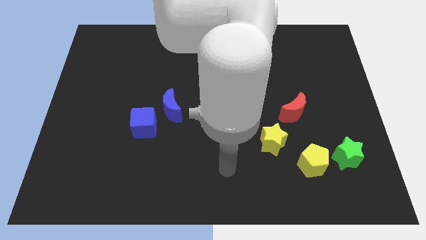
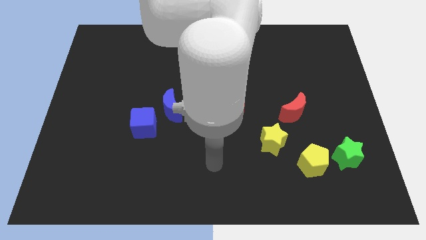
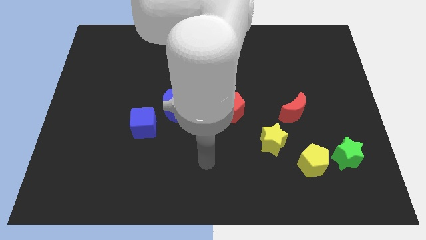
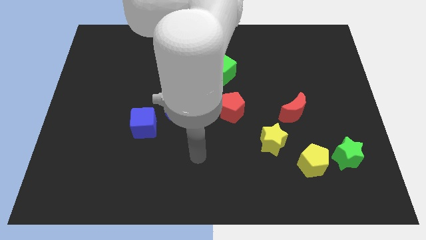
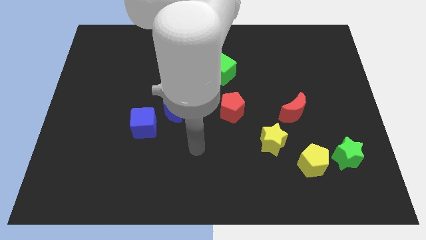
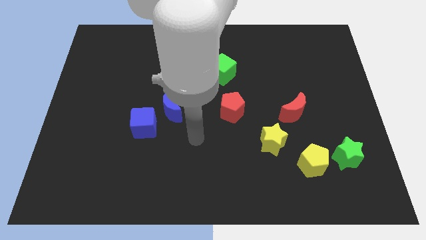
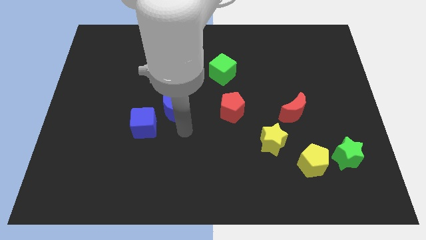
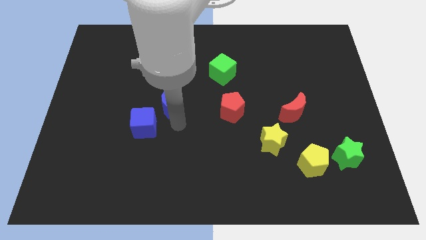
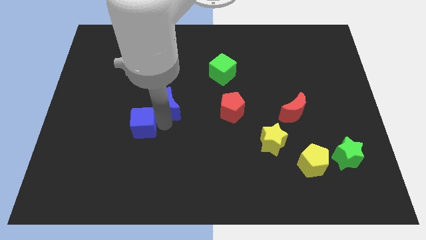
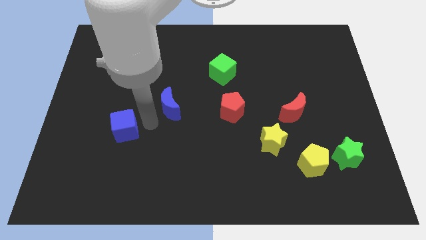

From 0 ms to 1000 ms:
separate the blue moon from the blue cube

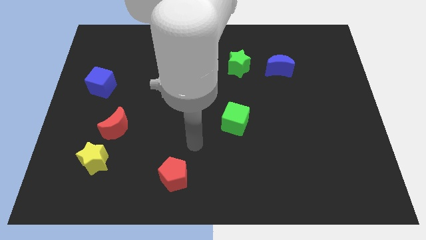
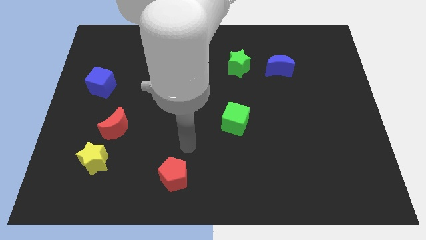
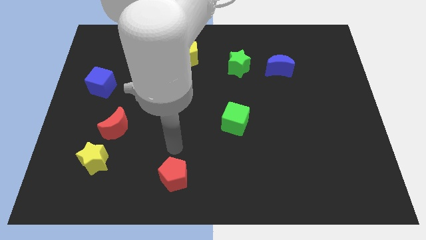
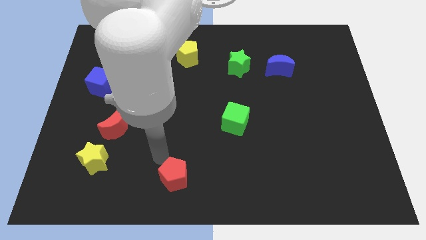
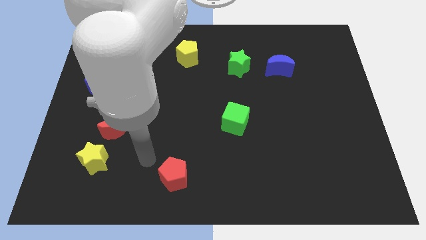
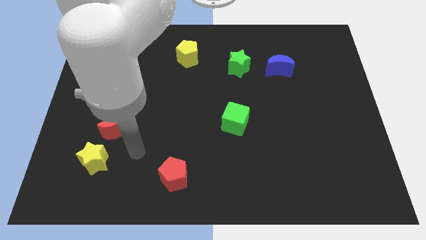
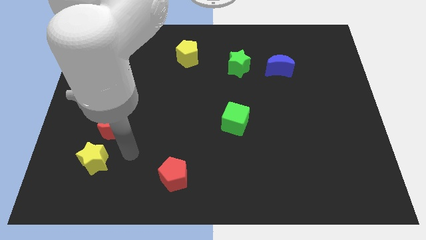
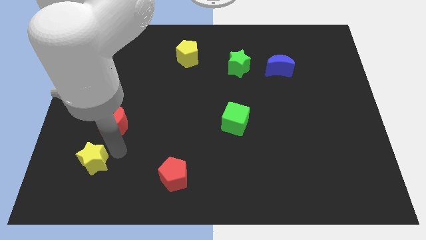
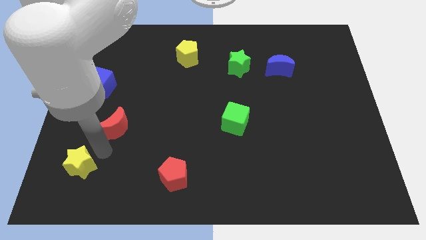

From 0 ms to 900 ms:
separate the red moon from the yellow star

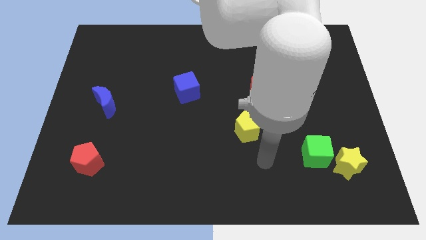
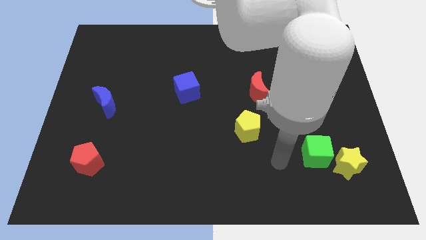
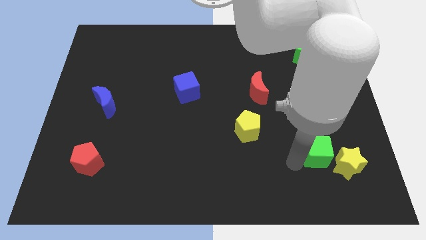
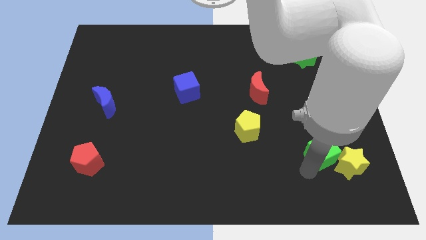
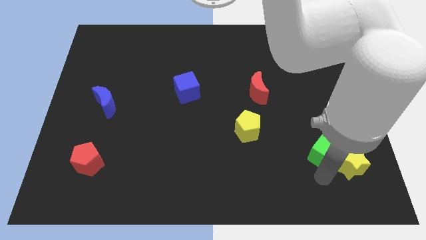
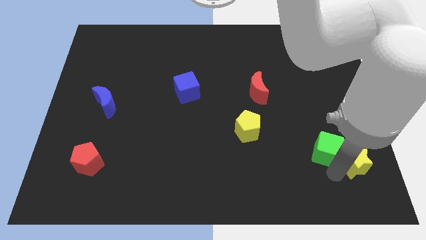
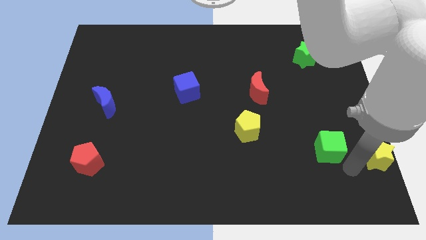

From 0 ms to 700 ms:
pull the green cube apart from the yellow star

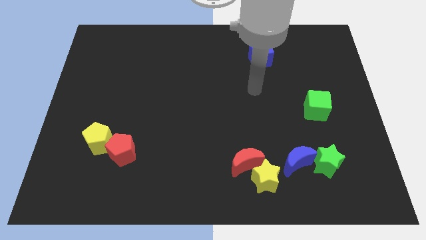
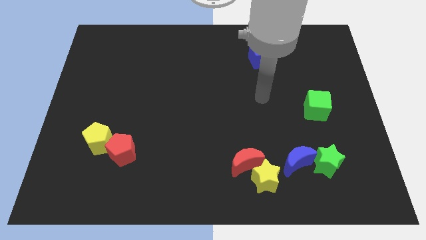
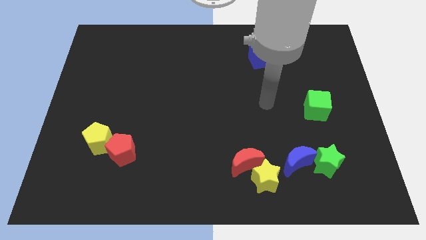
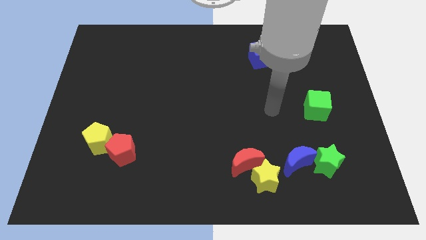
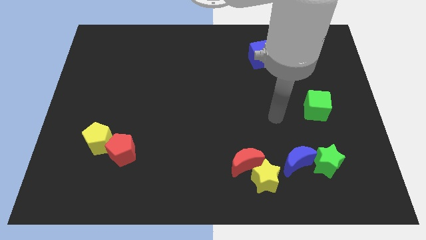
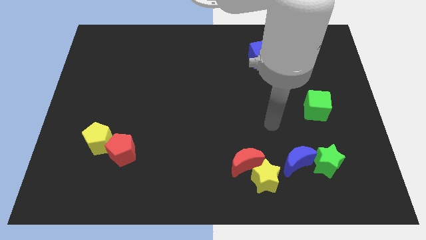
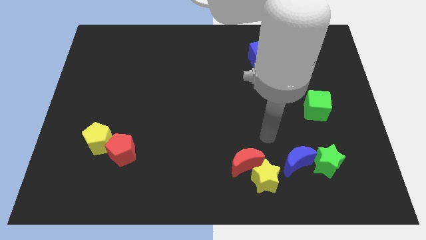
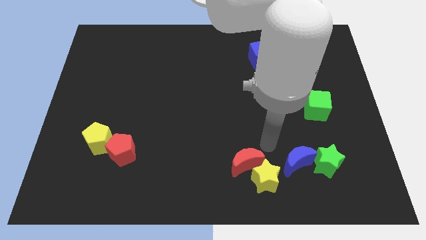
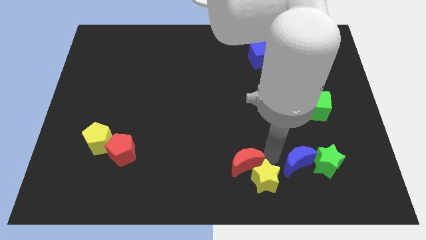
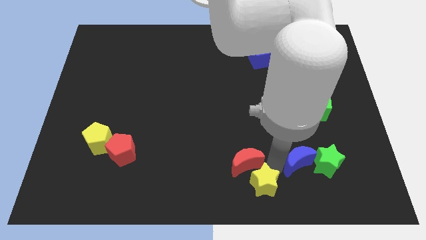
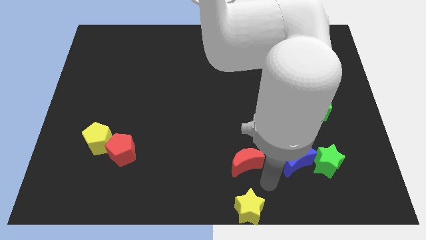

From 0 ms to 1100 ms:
pull the red moon apart from the yellow star

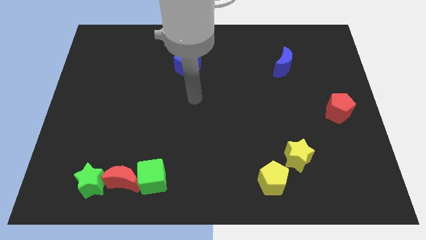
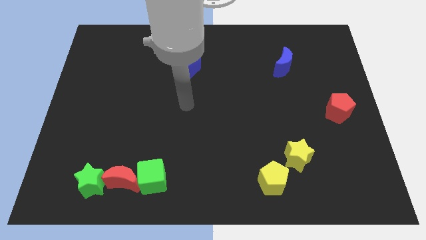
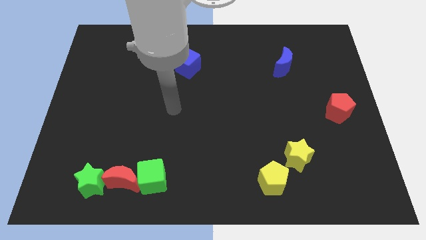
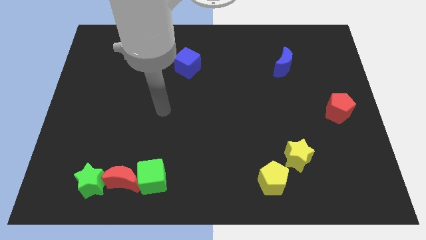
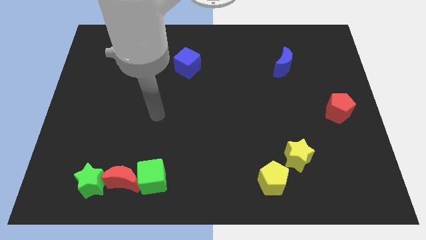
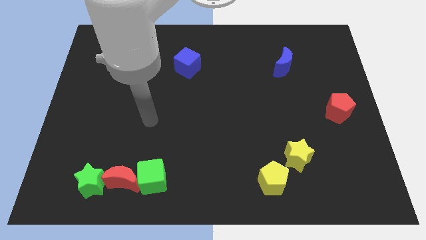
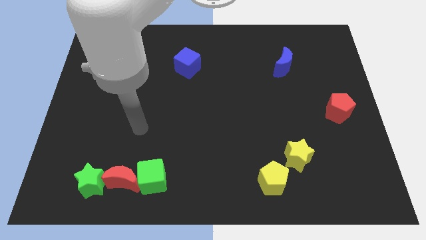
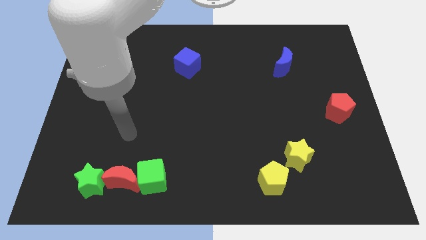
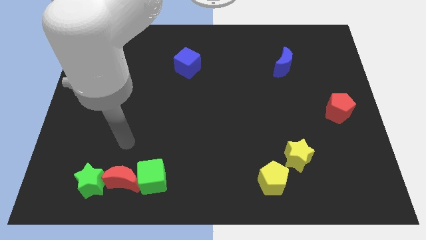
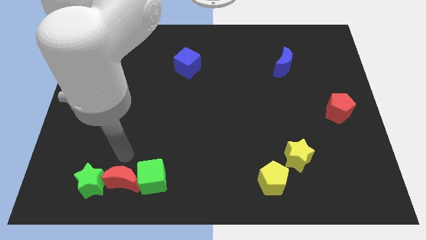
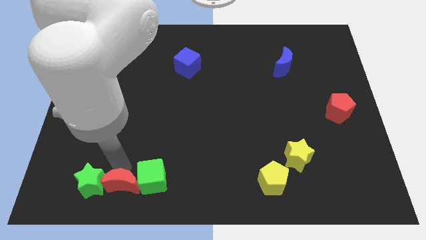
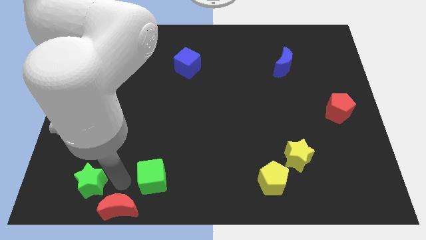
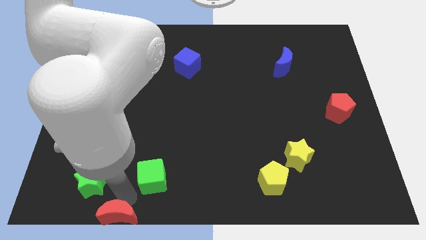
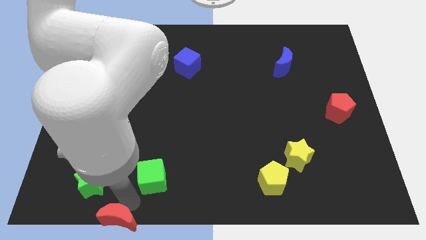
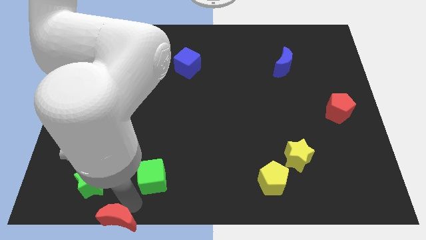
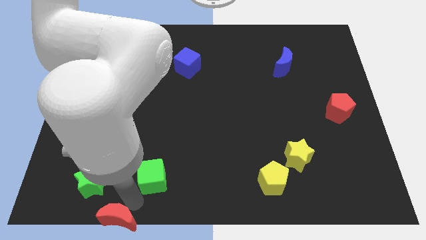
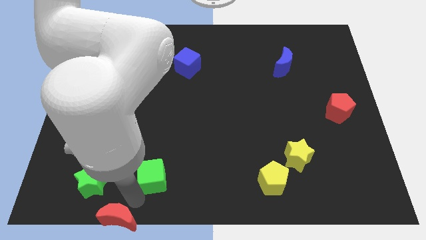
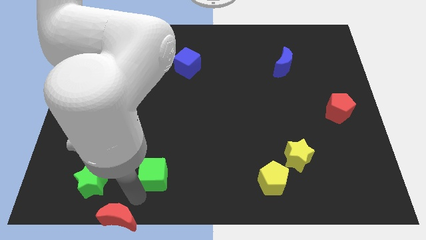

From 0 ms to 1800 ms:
move the green cube away from the red moon

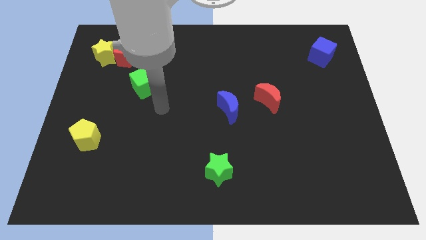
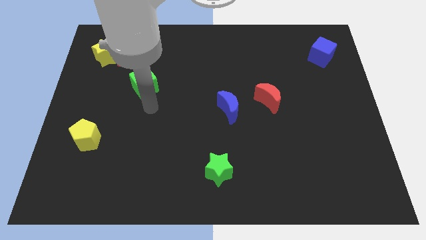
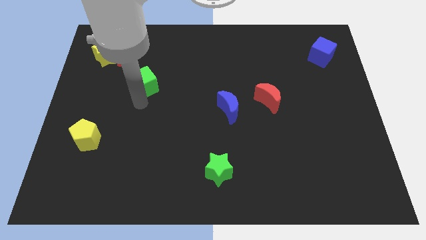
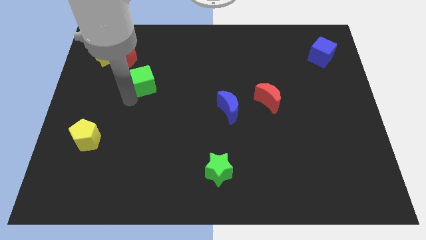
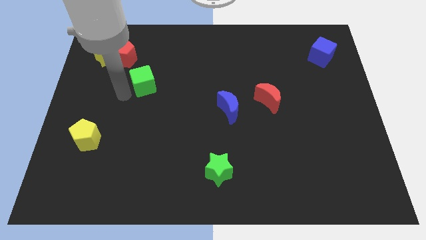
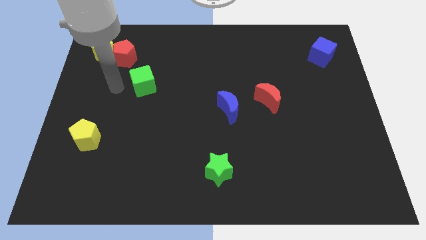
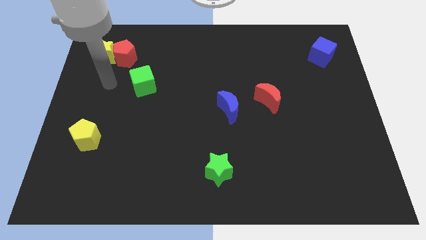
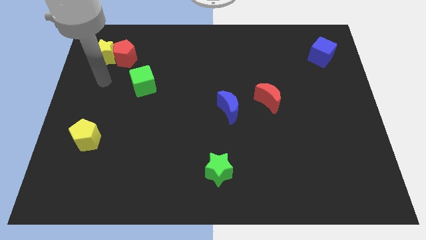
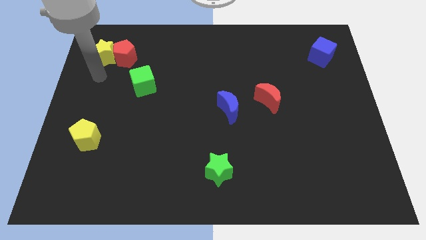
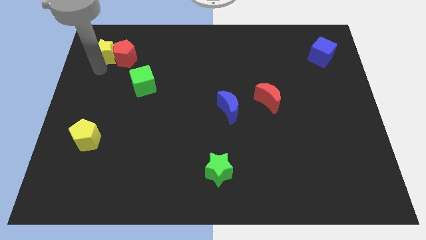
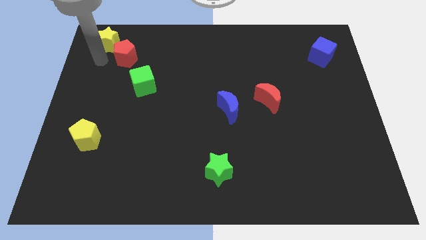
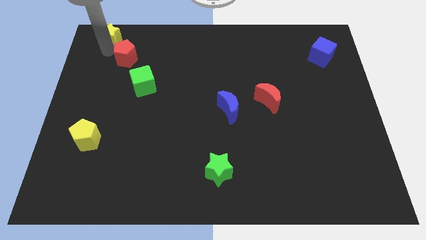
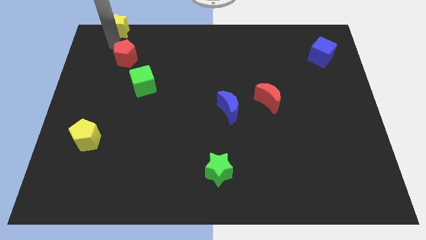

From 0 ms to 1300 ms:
separate the red pentagon from the yellow star

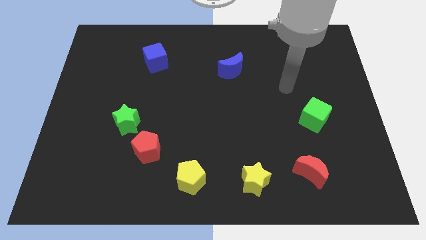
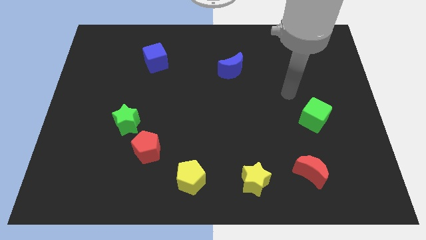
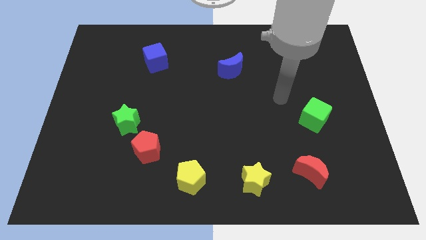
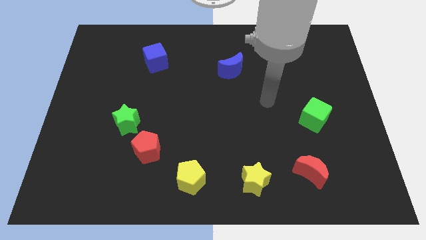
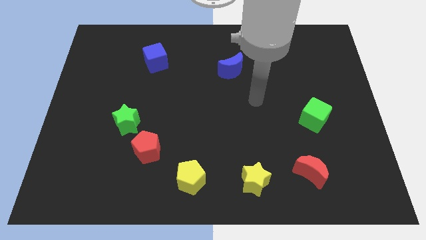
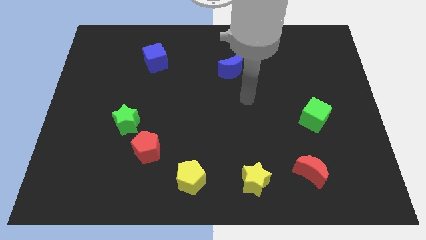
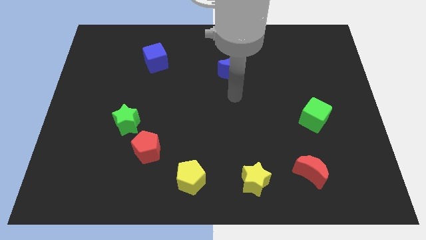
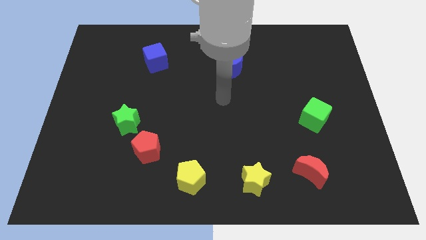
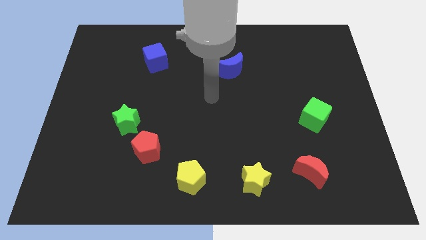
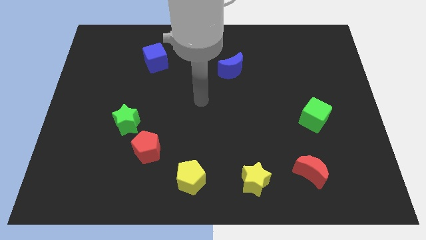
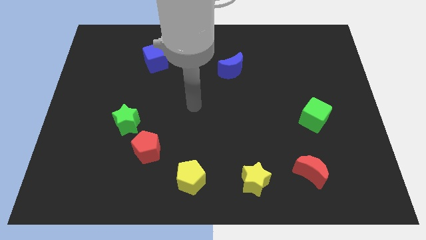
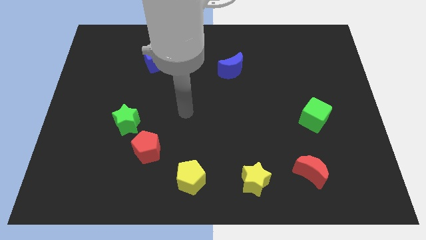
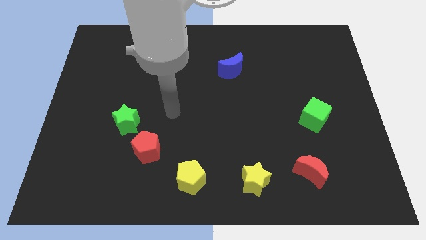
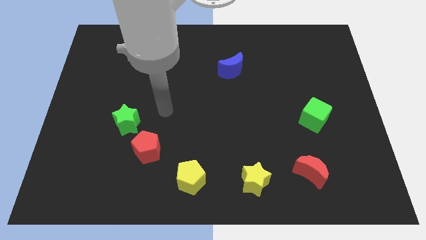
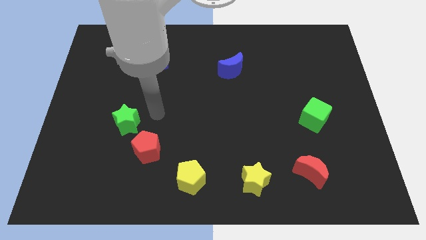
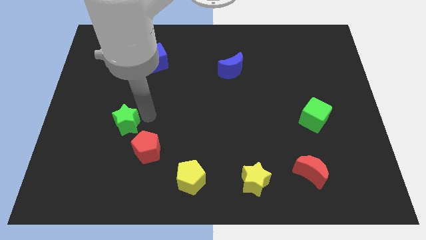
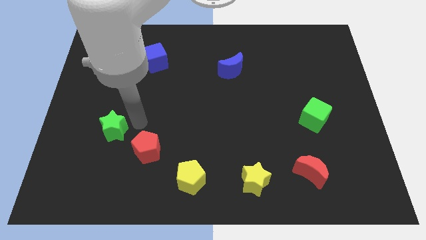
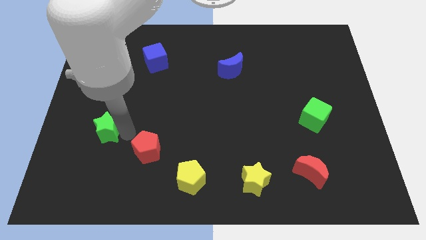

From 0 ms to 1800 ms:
move the red pentagon away from the green star

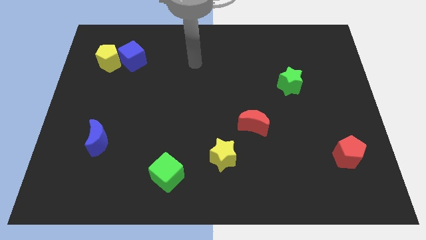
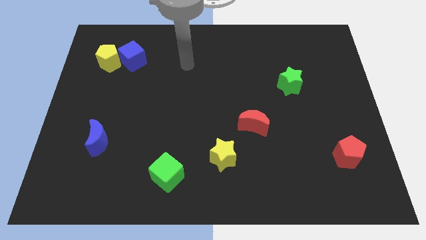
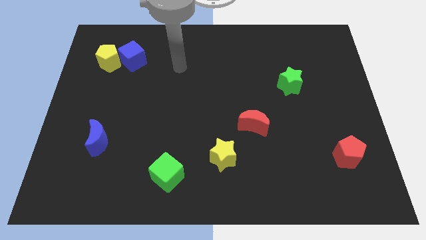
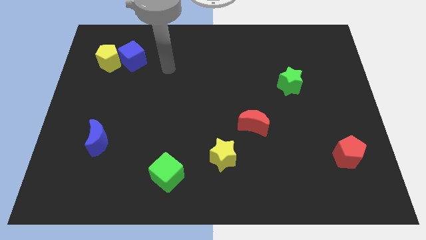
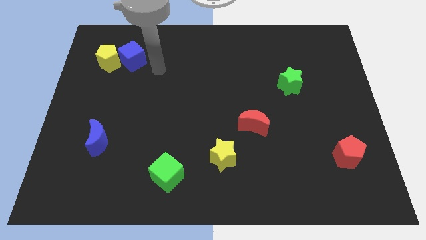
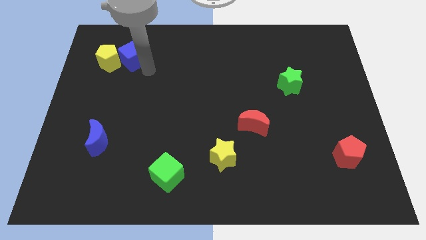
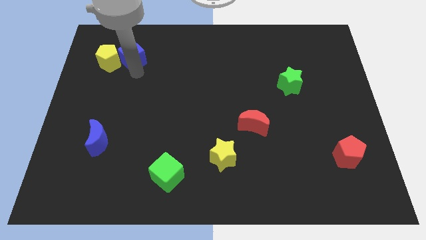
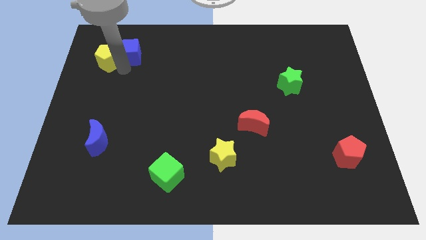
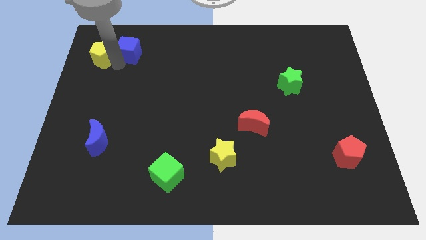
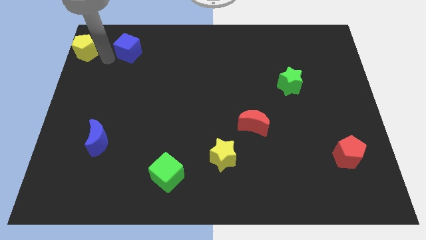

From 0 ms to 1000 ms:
move the blue cube away from the yellow pentagon
